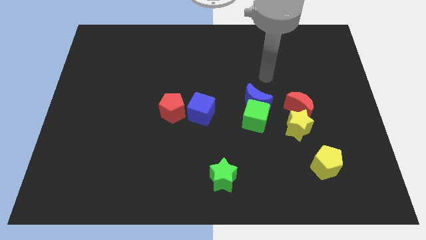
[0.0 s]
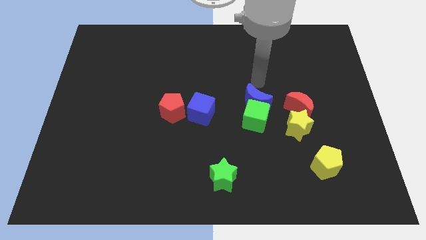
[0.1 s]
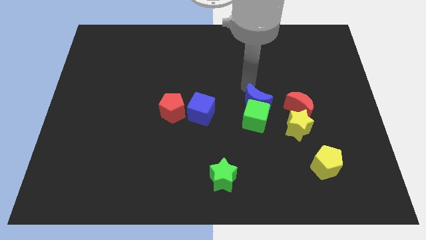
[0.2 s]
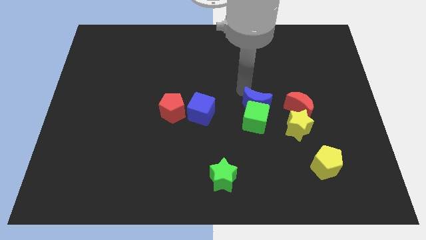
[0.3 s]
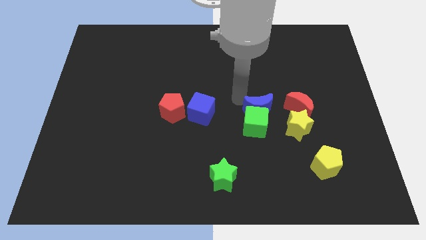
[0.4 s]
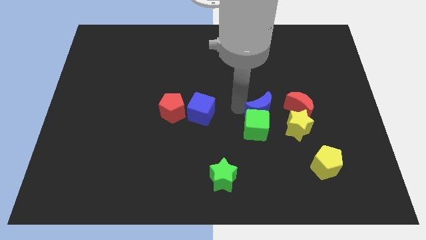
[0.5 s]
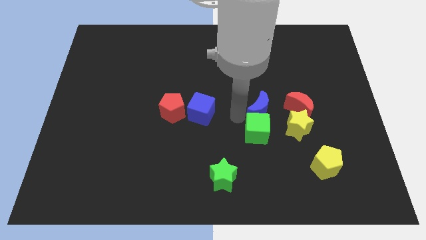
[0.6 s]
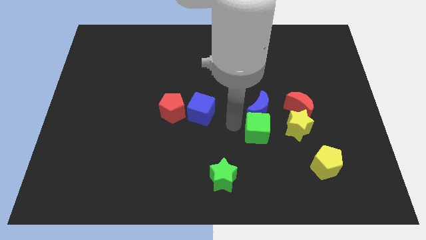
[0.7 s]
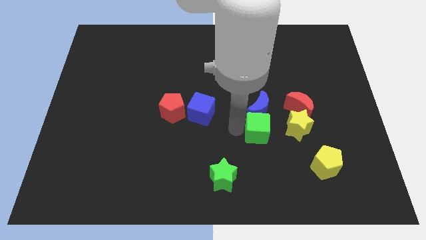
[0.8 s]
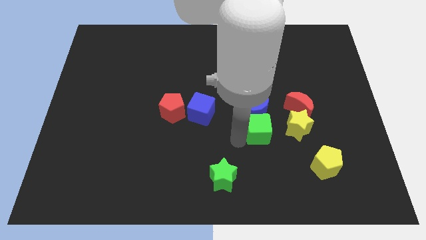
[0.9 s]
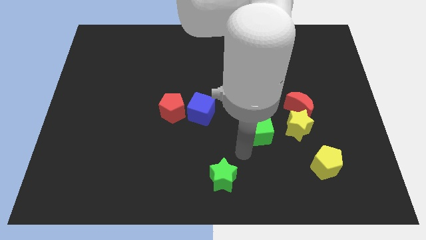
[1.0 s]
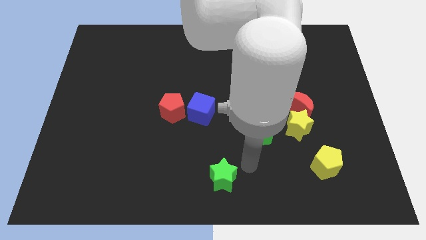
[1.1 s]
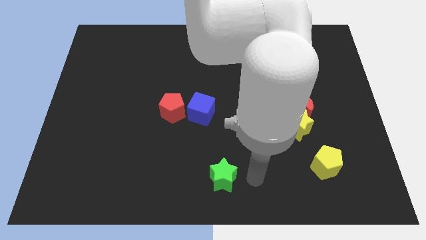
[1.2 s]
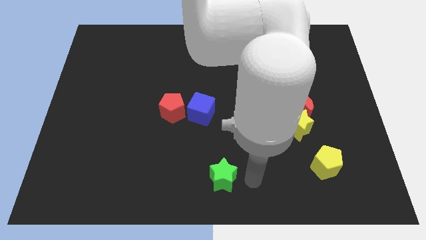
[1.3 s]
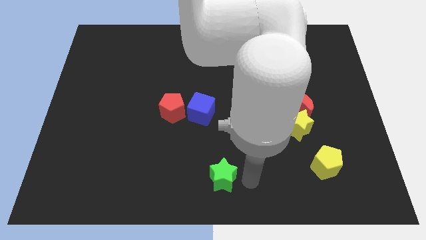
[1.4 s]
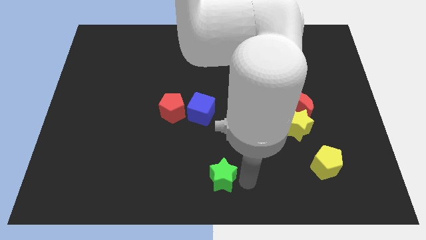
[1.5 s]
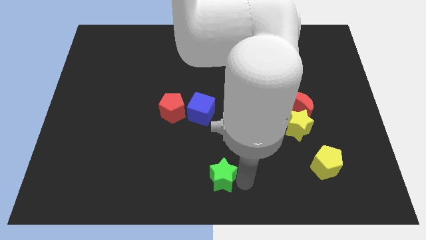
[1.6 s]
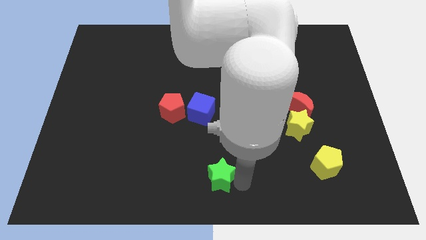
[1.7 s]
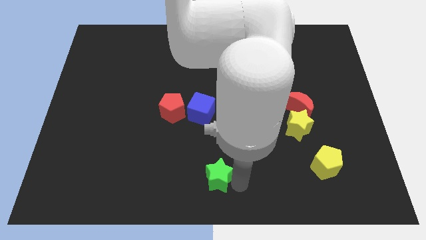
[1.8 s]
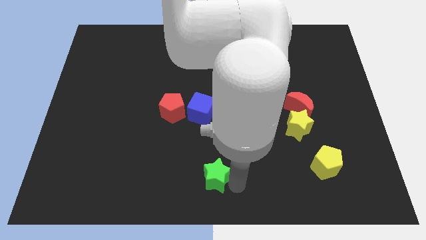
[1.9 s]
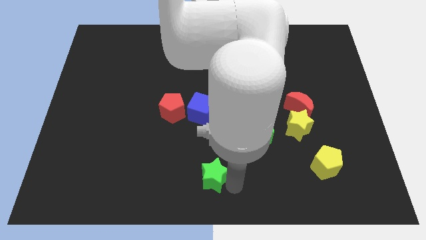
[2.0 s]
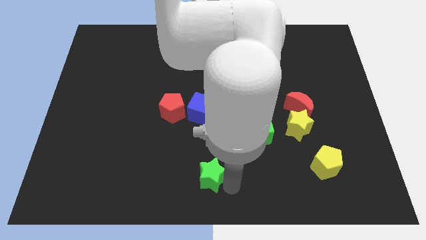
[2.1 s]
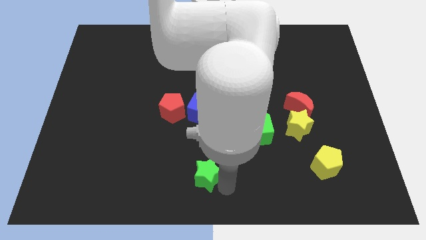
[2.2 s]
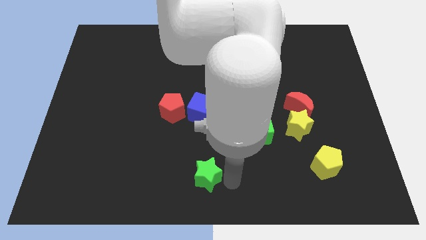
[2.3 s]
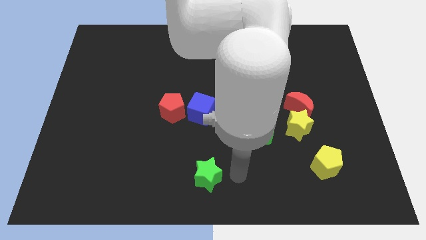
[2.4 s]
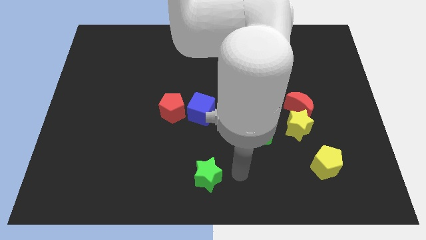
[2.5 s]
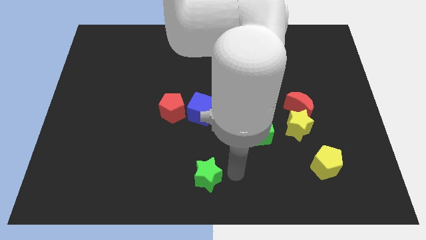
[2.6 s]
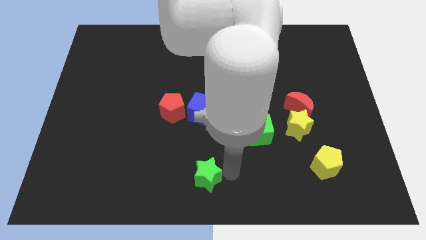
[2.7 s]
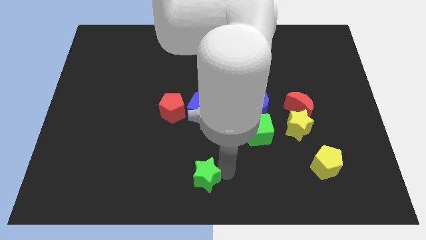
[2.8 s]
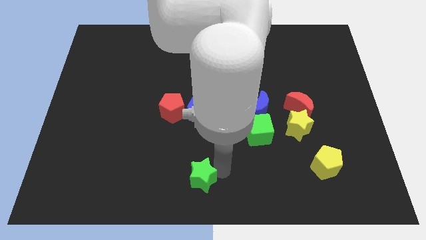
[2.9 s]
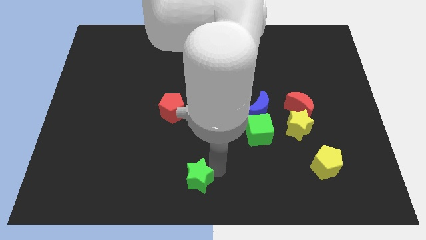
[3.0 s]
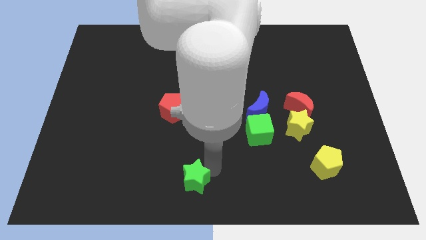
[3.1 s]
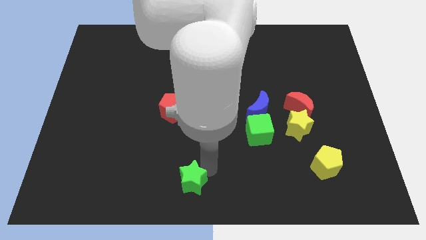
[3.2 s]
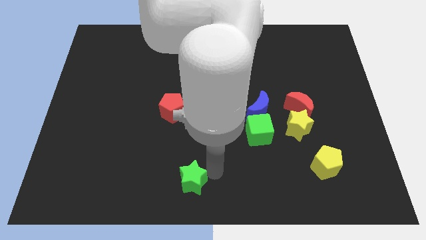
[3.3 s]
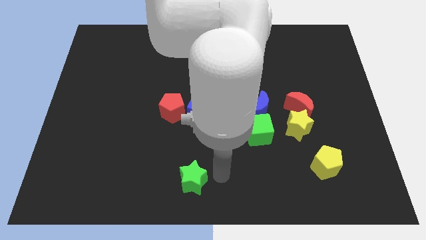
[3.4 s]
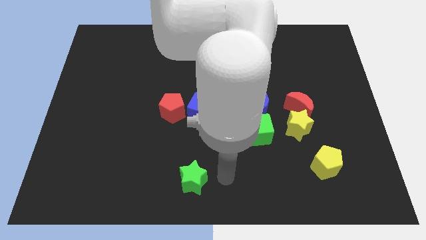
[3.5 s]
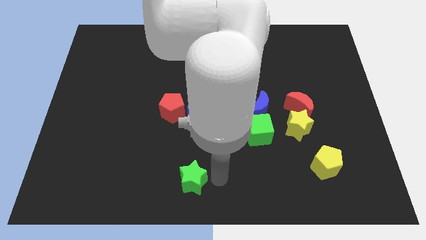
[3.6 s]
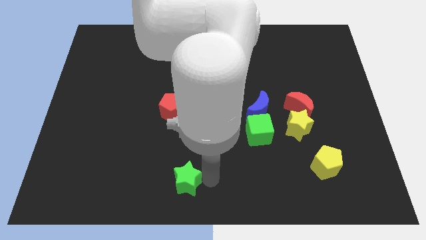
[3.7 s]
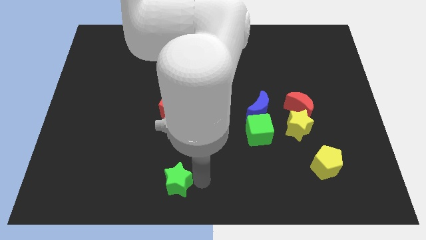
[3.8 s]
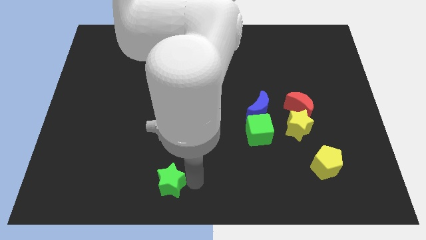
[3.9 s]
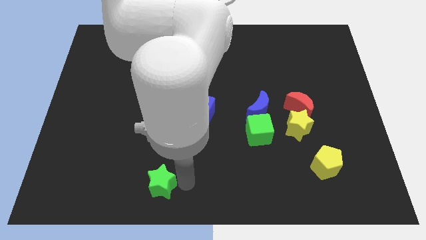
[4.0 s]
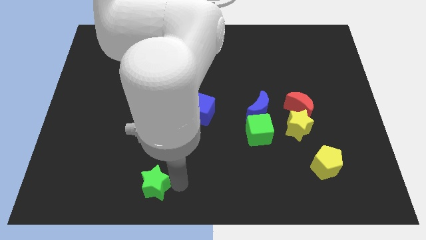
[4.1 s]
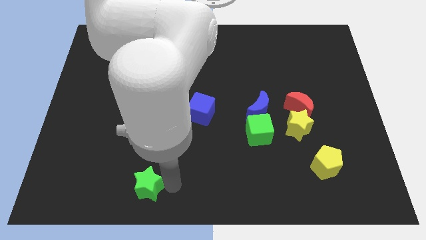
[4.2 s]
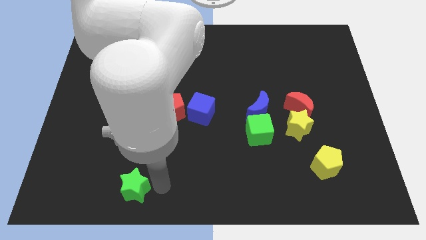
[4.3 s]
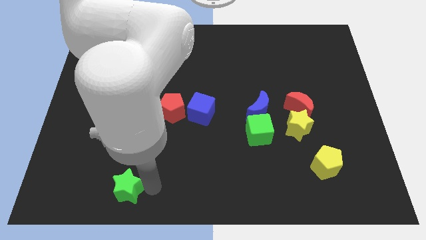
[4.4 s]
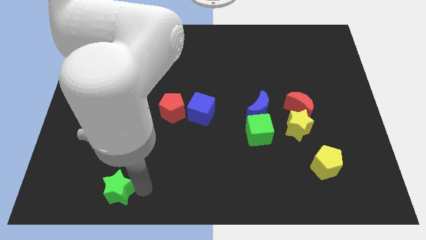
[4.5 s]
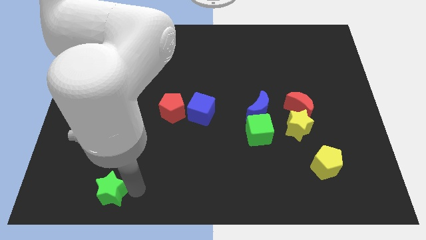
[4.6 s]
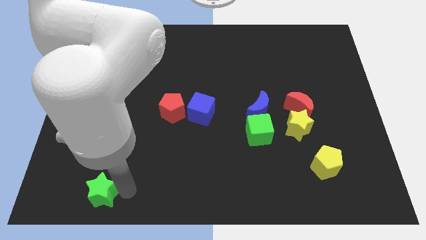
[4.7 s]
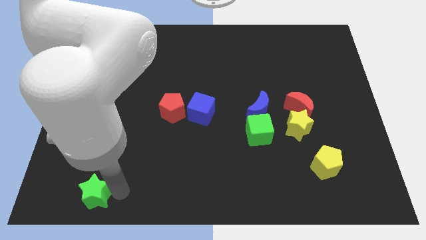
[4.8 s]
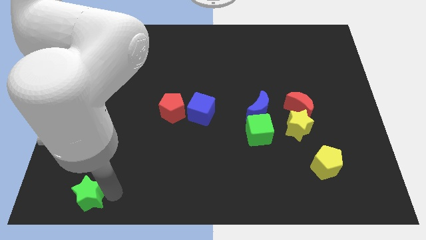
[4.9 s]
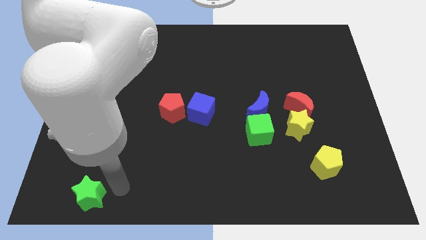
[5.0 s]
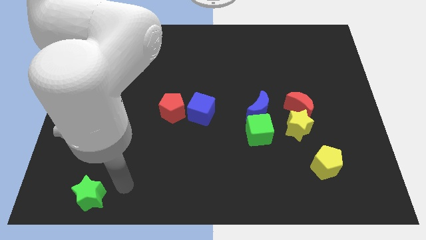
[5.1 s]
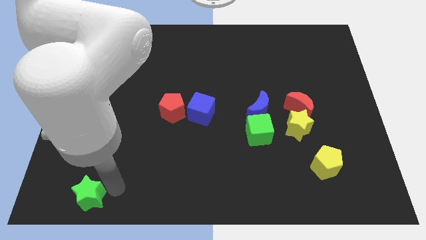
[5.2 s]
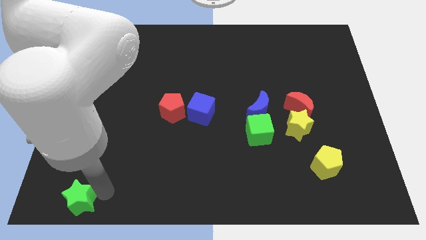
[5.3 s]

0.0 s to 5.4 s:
slide the green star to the bottom left of the board

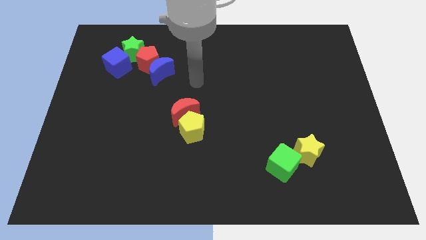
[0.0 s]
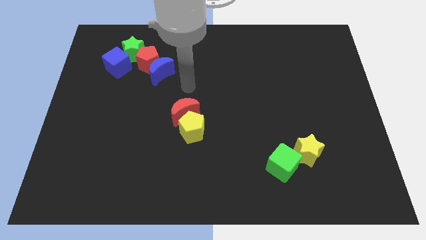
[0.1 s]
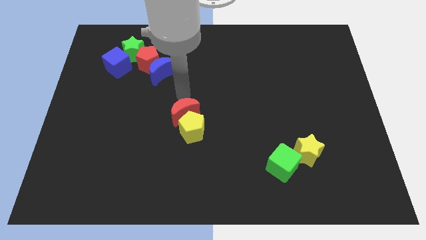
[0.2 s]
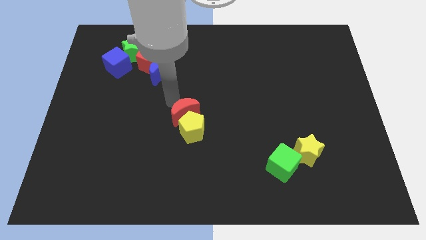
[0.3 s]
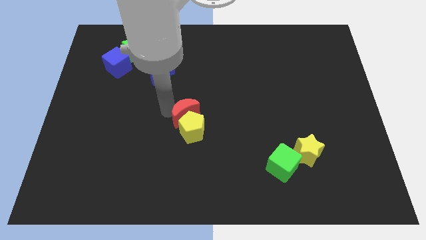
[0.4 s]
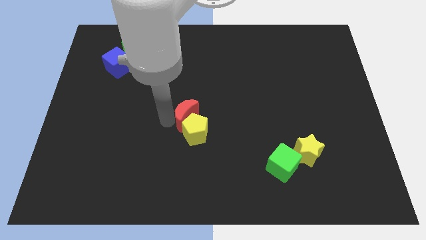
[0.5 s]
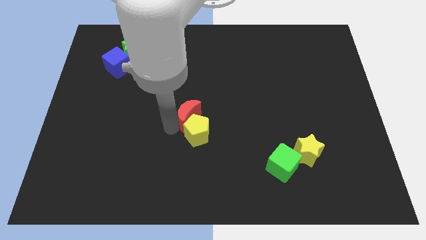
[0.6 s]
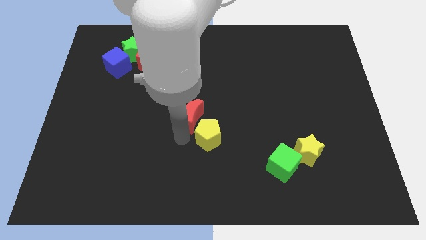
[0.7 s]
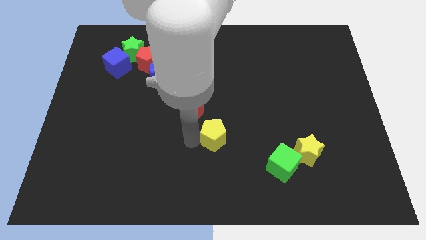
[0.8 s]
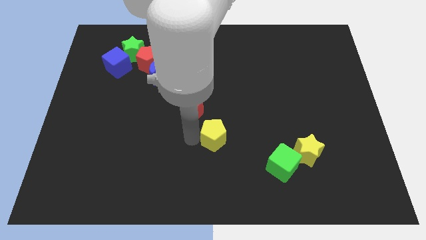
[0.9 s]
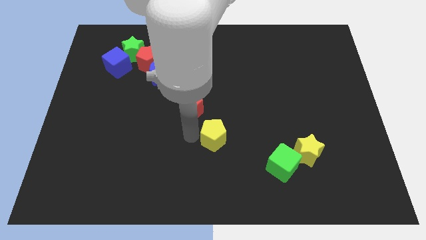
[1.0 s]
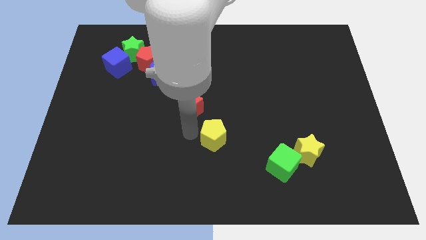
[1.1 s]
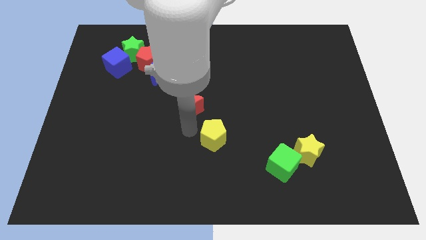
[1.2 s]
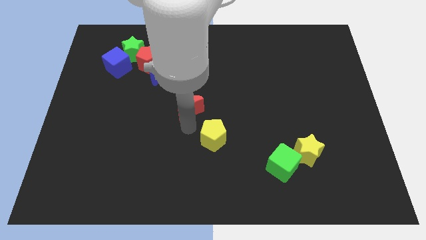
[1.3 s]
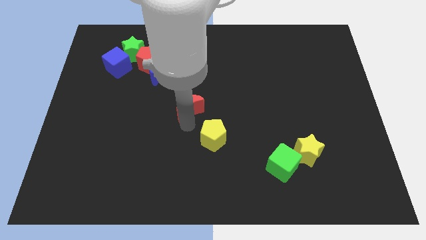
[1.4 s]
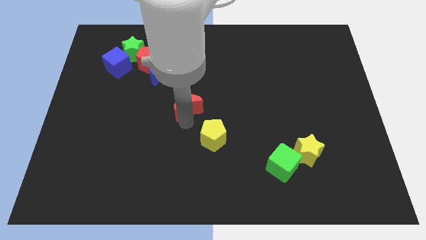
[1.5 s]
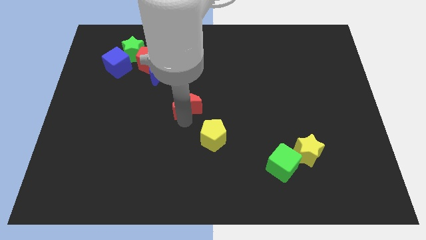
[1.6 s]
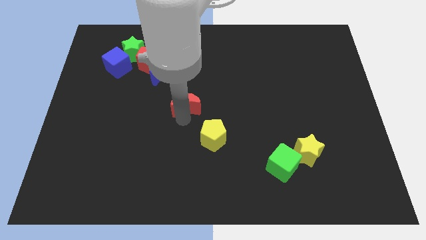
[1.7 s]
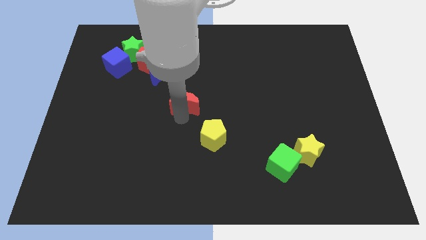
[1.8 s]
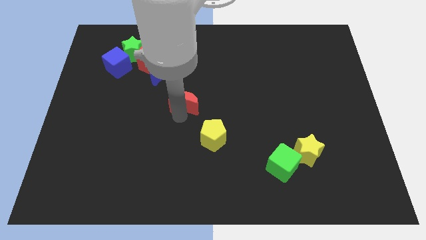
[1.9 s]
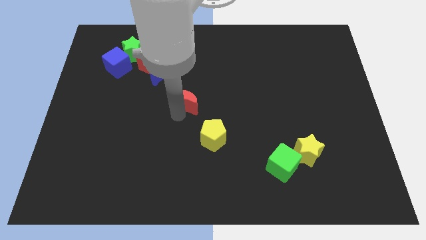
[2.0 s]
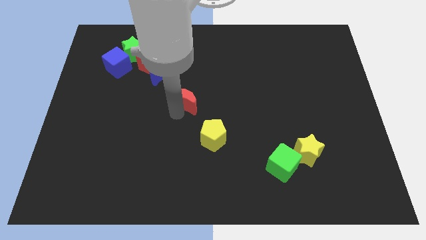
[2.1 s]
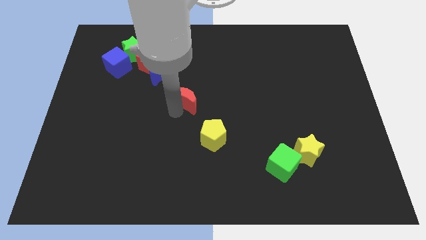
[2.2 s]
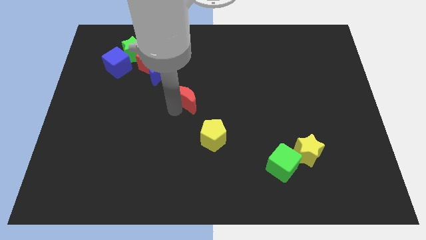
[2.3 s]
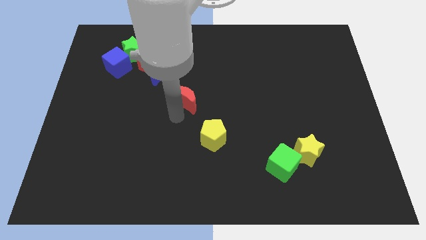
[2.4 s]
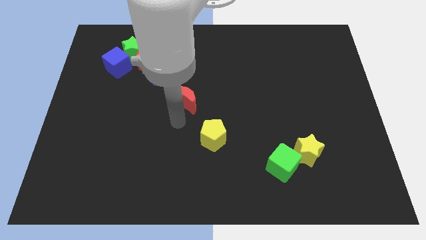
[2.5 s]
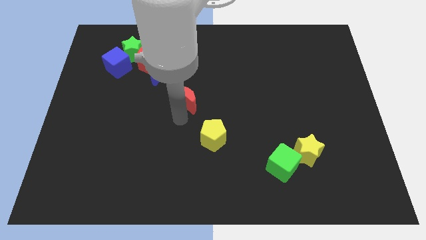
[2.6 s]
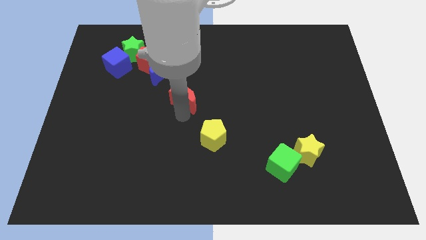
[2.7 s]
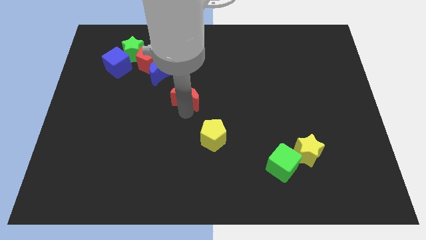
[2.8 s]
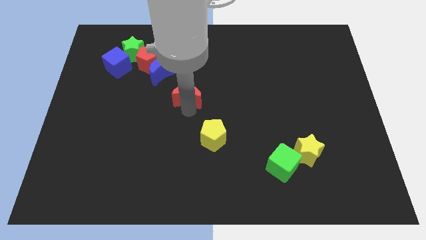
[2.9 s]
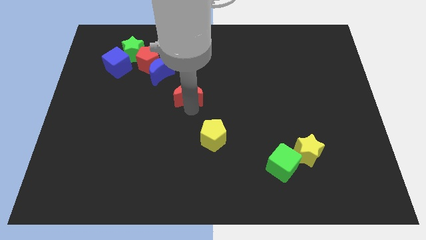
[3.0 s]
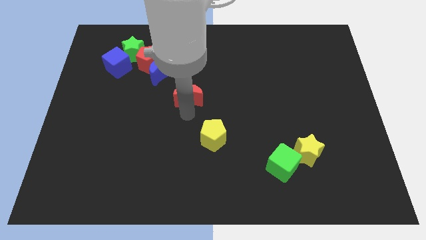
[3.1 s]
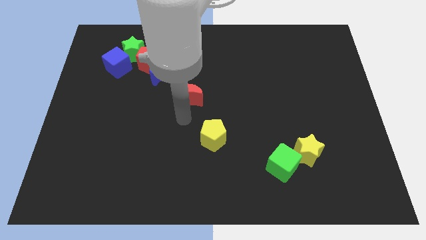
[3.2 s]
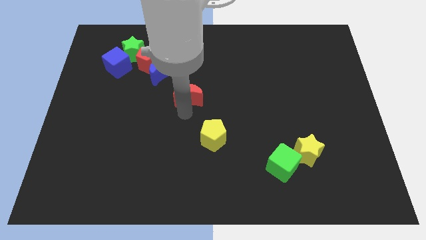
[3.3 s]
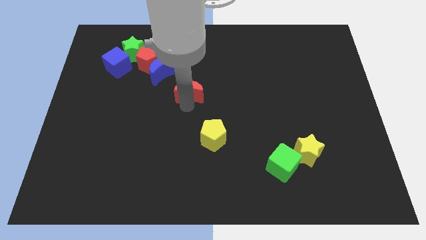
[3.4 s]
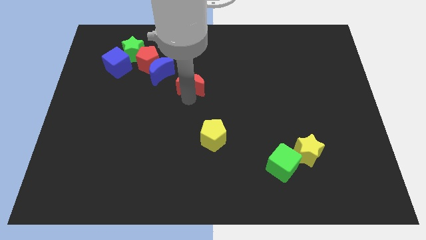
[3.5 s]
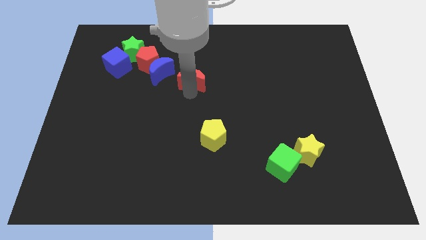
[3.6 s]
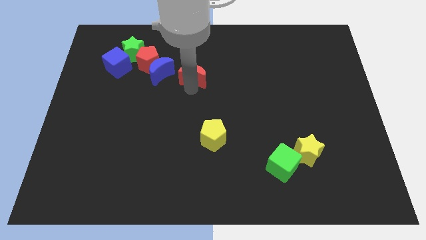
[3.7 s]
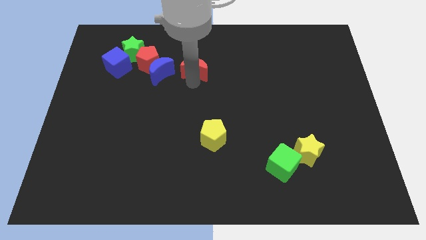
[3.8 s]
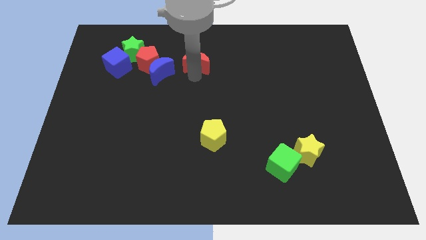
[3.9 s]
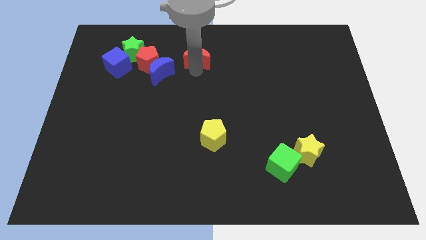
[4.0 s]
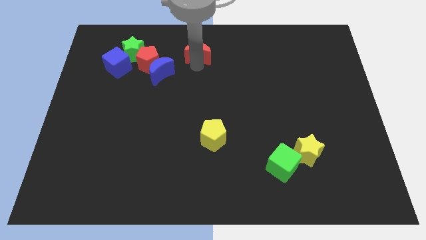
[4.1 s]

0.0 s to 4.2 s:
move the red moon to the top
